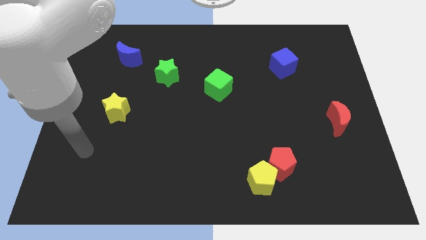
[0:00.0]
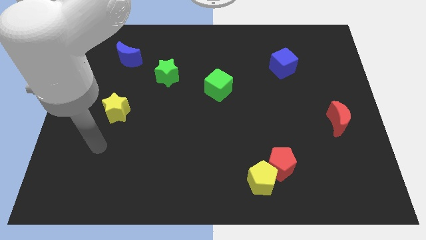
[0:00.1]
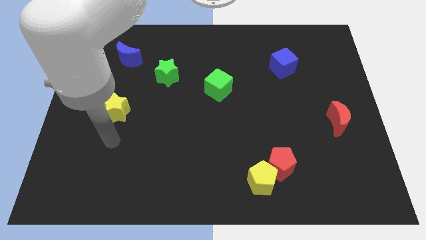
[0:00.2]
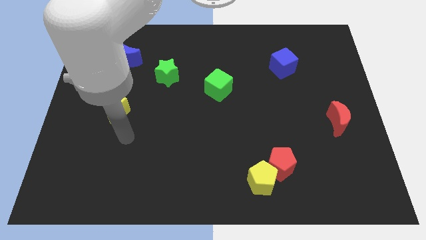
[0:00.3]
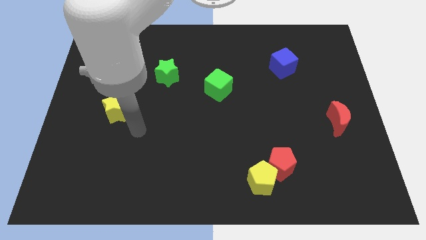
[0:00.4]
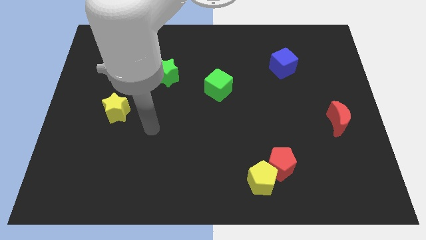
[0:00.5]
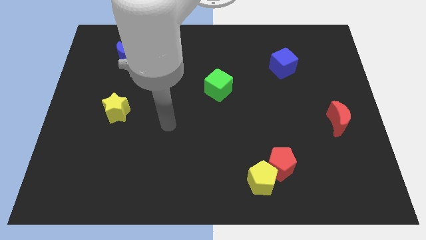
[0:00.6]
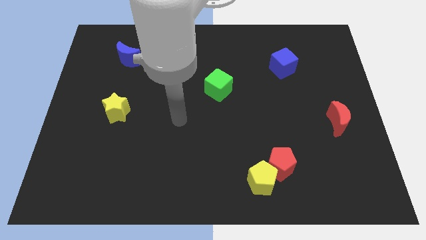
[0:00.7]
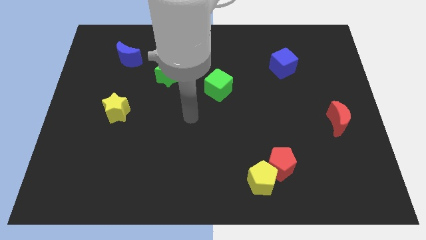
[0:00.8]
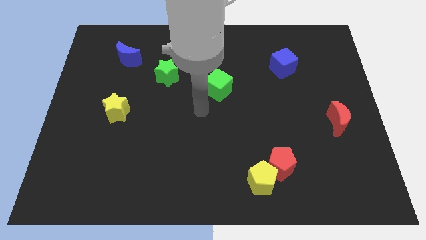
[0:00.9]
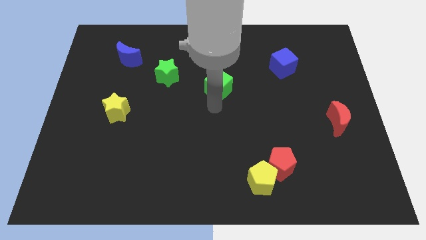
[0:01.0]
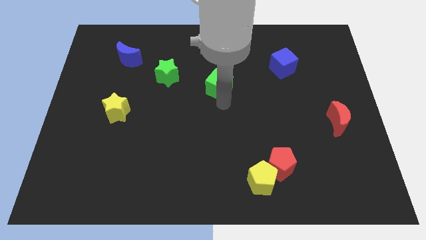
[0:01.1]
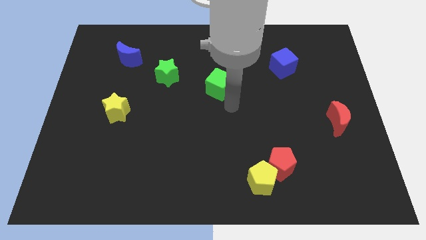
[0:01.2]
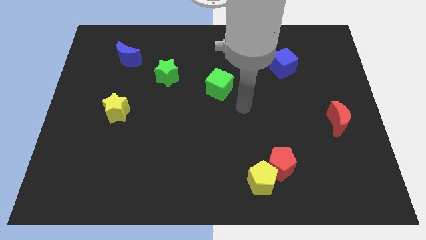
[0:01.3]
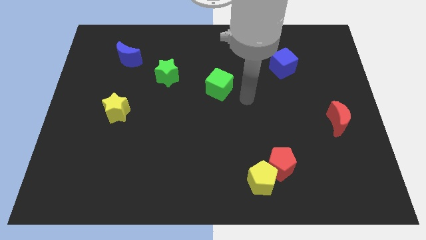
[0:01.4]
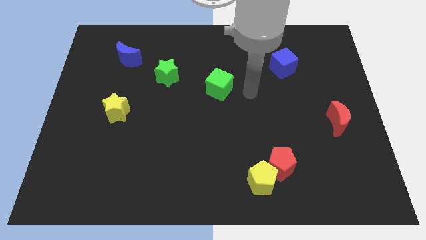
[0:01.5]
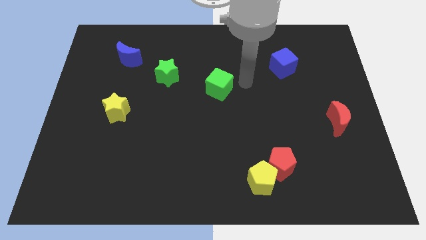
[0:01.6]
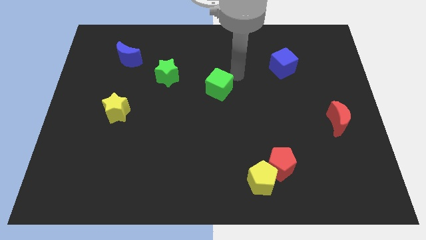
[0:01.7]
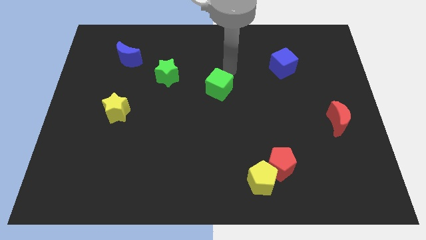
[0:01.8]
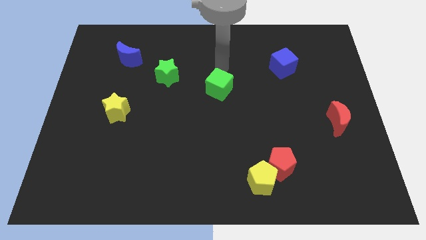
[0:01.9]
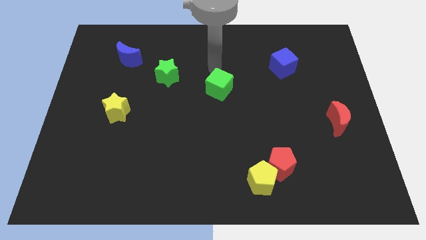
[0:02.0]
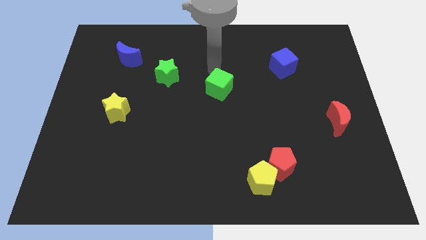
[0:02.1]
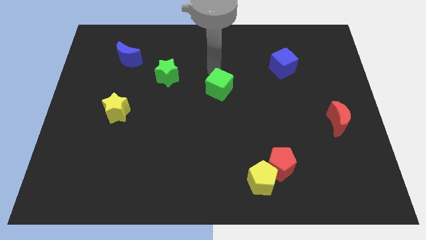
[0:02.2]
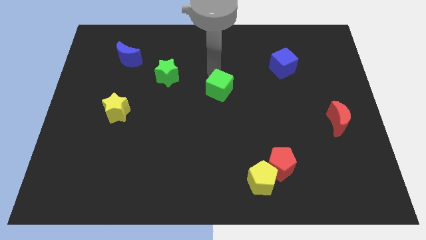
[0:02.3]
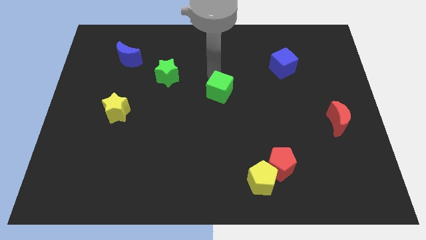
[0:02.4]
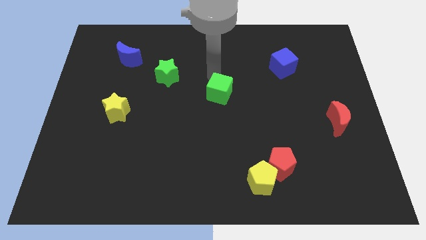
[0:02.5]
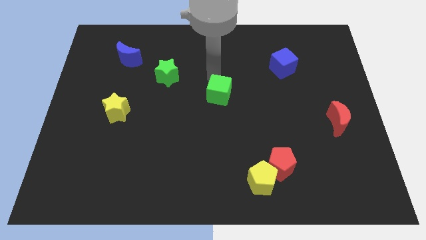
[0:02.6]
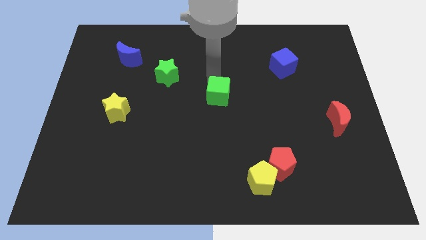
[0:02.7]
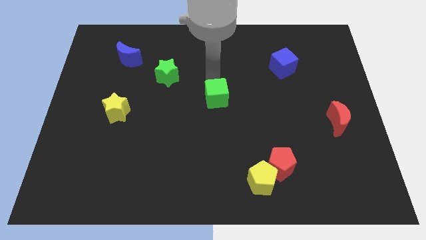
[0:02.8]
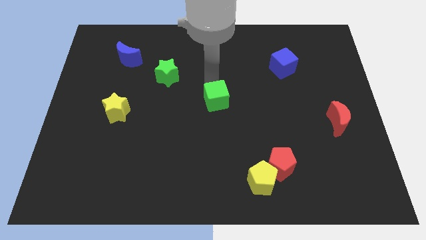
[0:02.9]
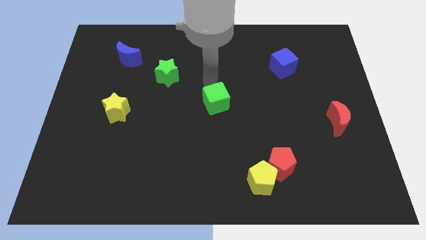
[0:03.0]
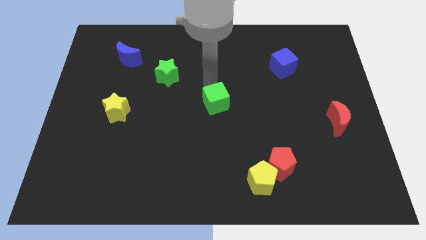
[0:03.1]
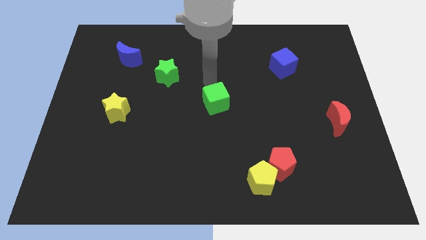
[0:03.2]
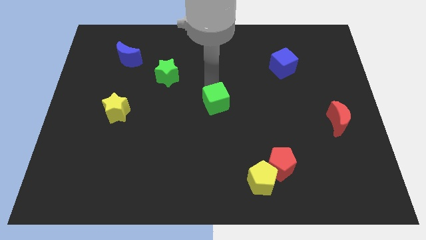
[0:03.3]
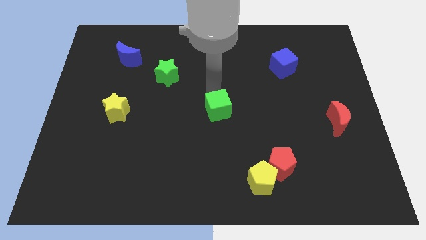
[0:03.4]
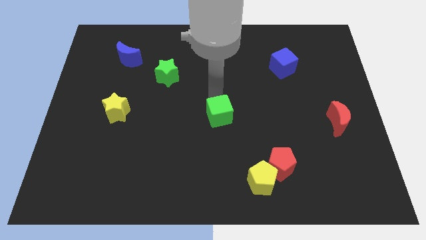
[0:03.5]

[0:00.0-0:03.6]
move the green cube down a bit

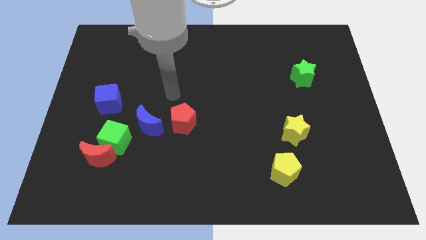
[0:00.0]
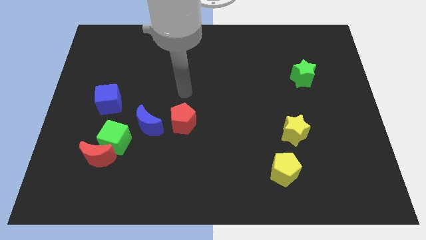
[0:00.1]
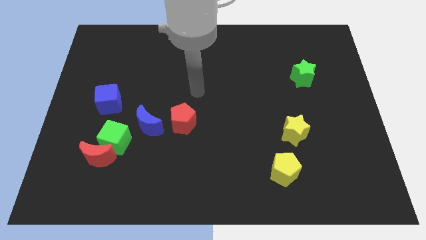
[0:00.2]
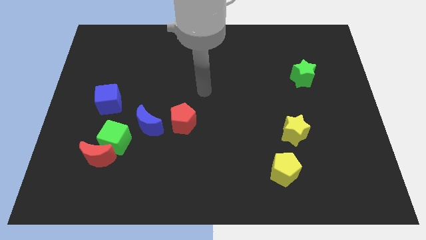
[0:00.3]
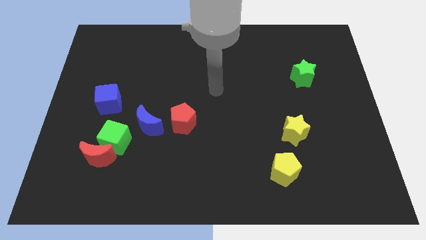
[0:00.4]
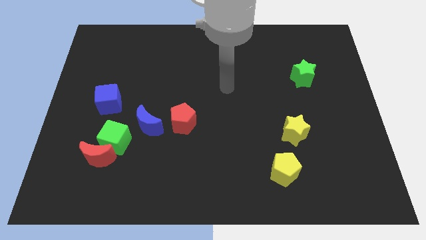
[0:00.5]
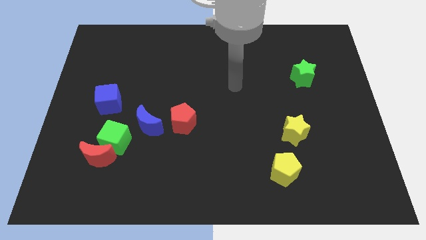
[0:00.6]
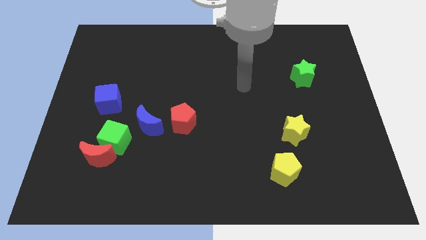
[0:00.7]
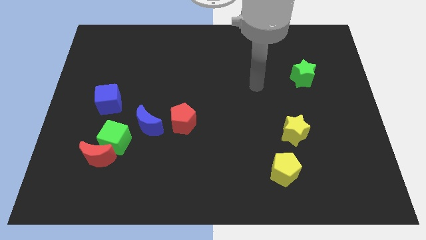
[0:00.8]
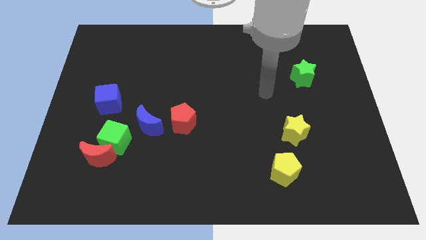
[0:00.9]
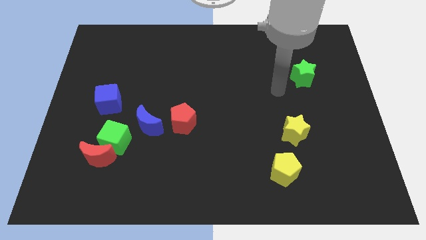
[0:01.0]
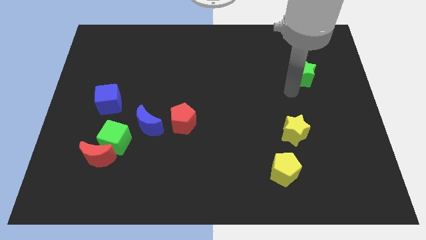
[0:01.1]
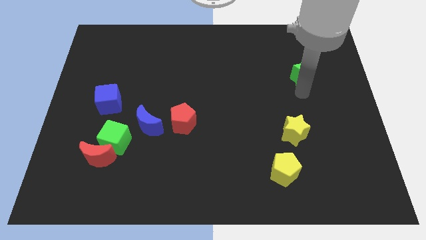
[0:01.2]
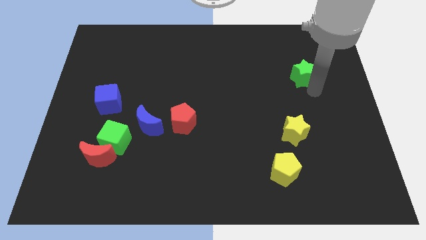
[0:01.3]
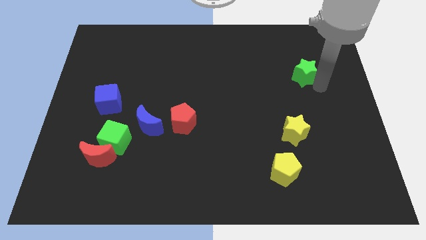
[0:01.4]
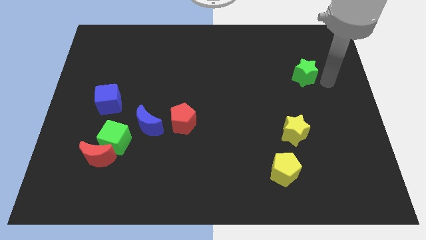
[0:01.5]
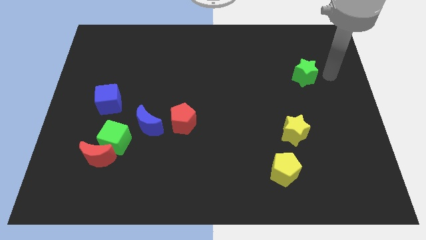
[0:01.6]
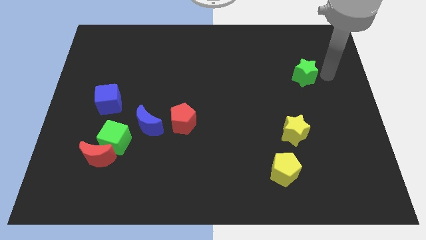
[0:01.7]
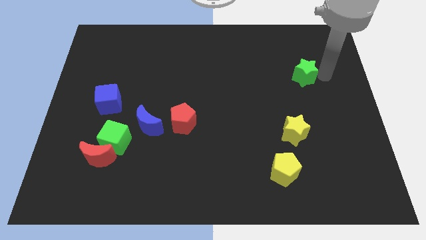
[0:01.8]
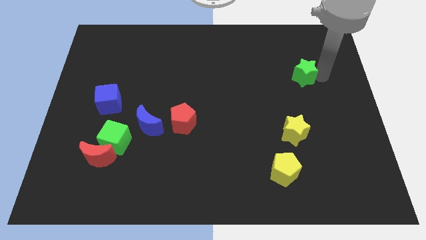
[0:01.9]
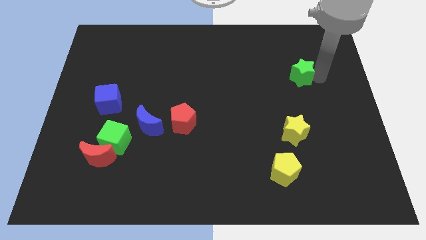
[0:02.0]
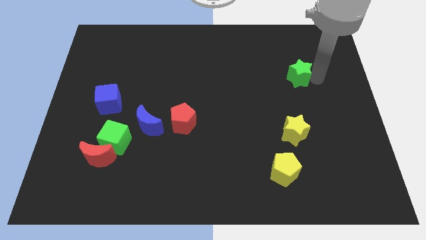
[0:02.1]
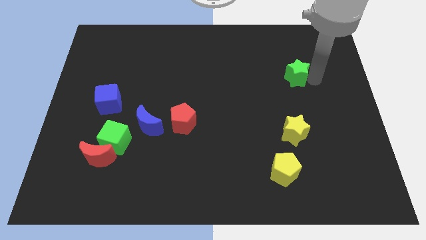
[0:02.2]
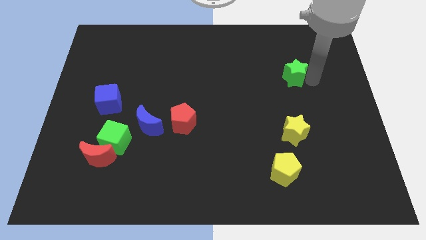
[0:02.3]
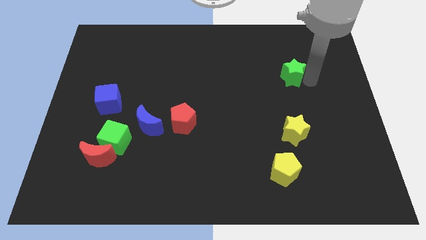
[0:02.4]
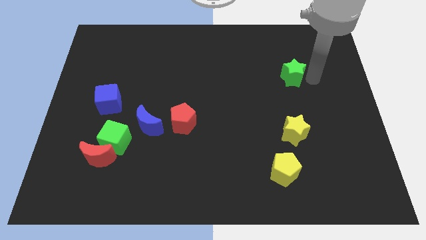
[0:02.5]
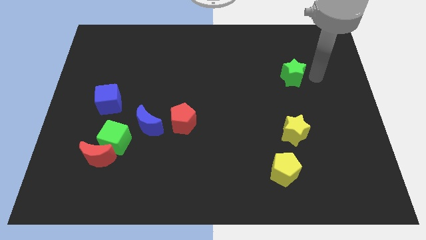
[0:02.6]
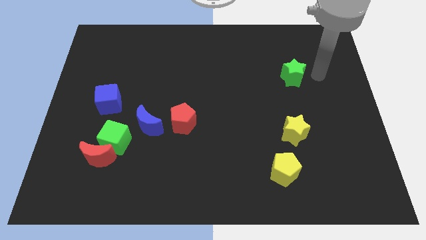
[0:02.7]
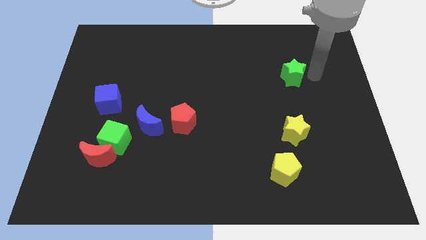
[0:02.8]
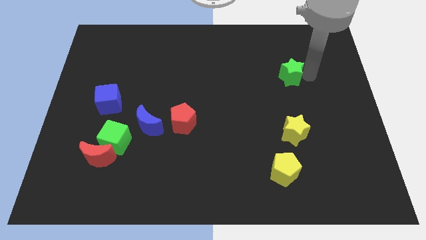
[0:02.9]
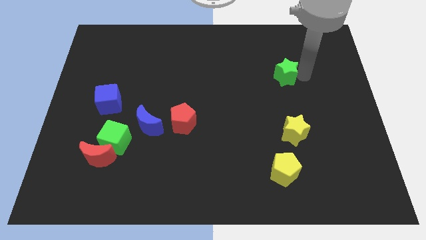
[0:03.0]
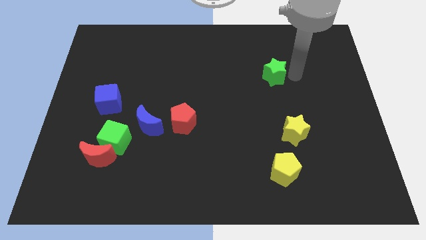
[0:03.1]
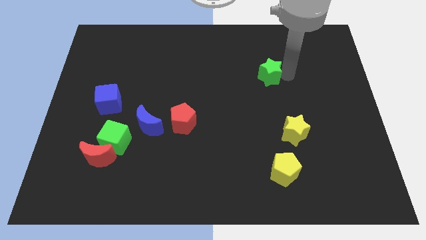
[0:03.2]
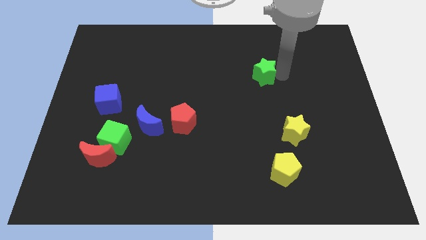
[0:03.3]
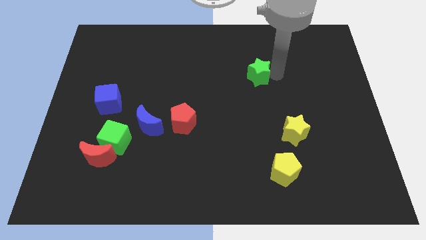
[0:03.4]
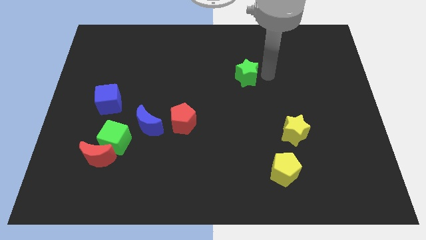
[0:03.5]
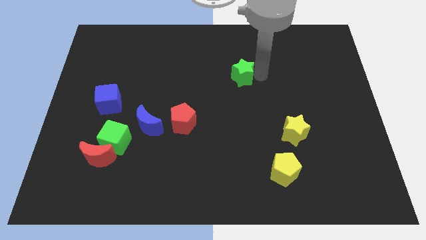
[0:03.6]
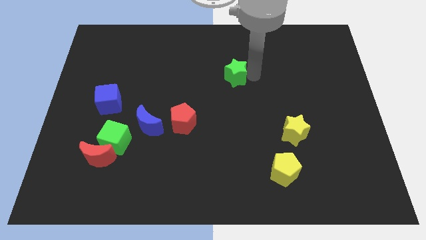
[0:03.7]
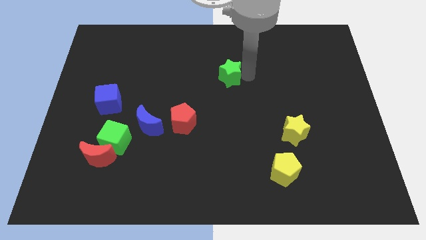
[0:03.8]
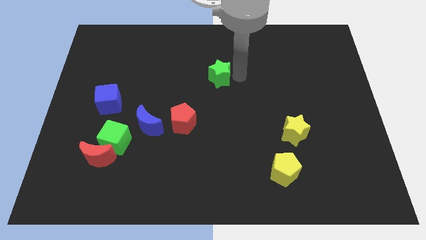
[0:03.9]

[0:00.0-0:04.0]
push the green star left
